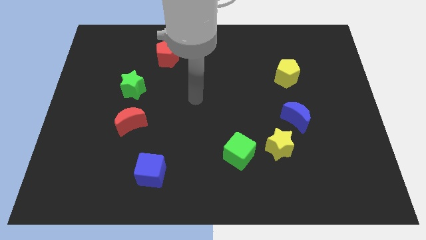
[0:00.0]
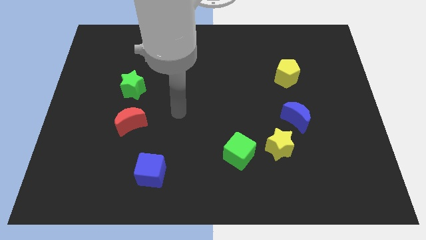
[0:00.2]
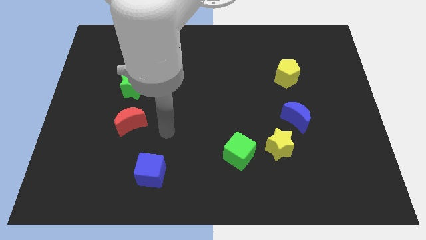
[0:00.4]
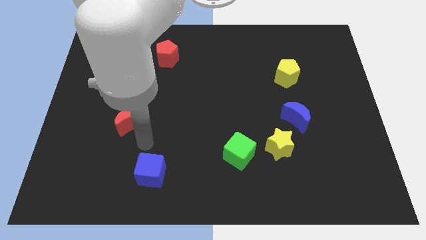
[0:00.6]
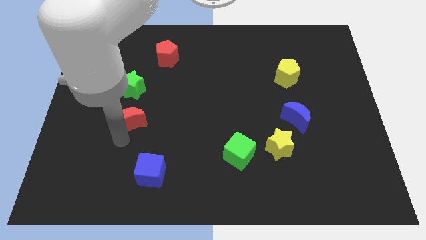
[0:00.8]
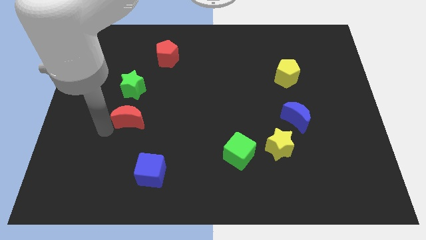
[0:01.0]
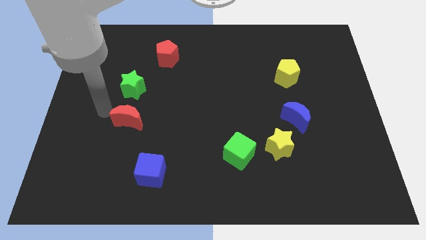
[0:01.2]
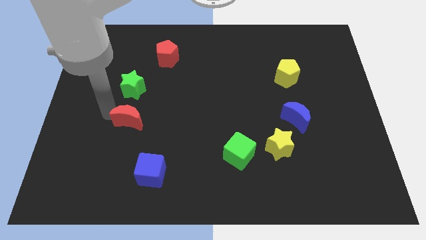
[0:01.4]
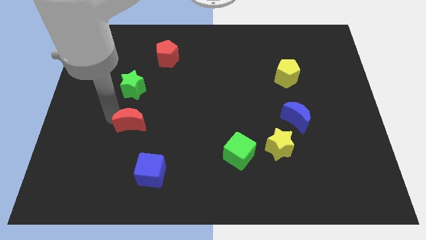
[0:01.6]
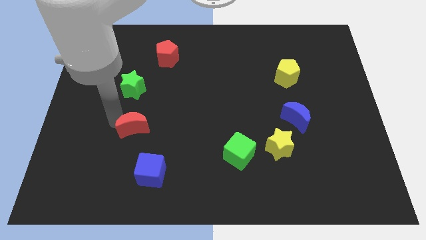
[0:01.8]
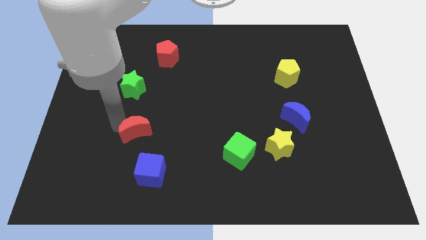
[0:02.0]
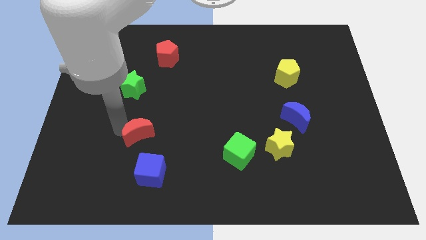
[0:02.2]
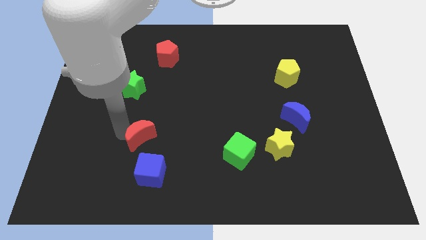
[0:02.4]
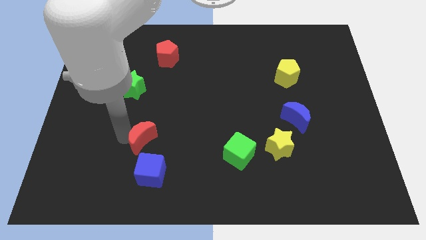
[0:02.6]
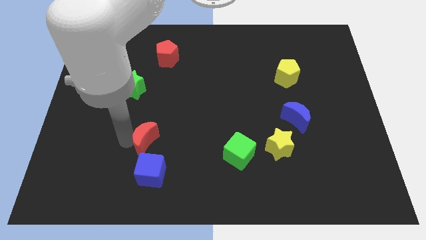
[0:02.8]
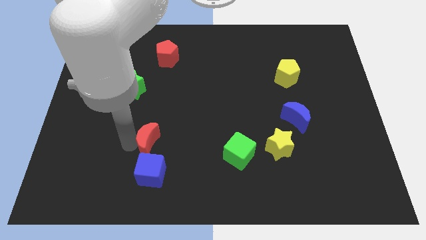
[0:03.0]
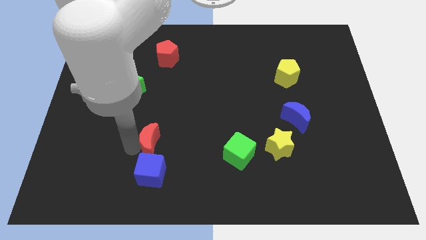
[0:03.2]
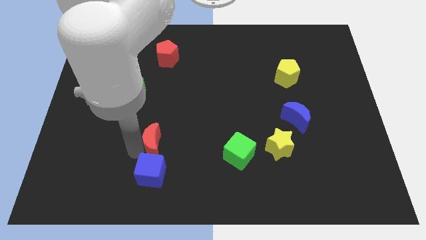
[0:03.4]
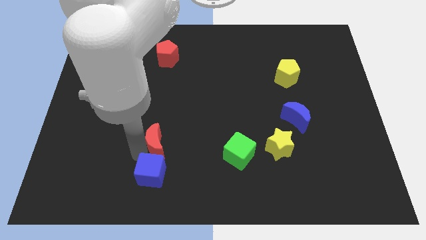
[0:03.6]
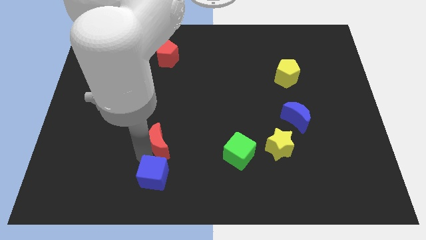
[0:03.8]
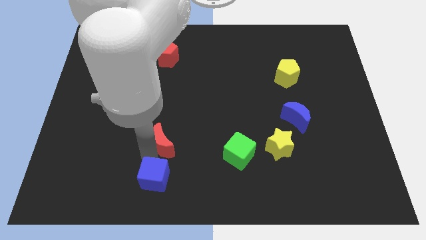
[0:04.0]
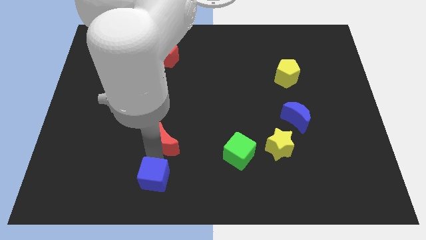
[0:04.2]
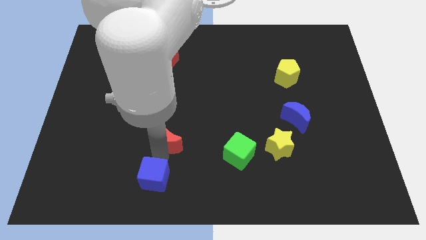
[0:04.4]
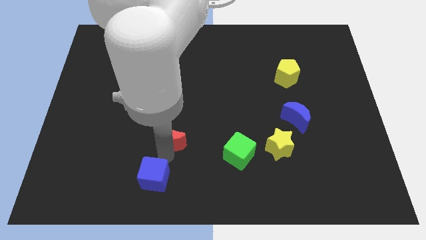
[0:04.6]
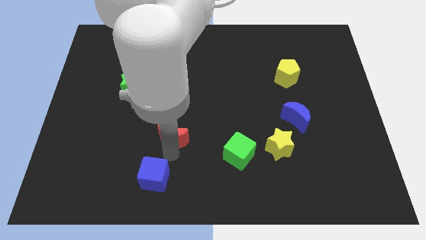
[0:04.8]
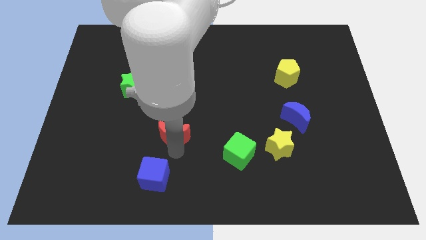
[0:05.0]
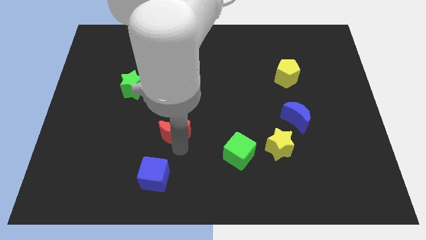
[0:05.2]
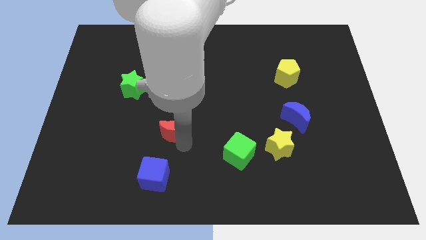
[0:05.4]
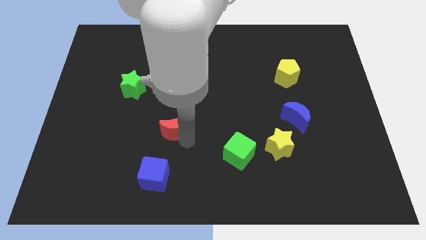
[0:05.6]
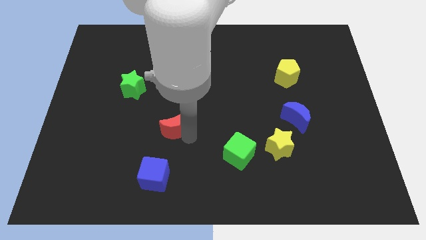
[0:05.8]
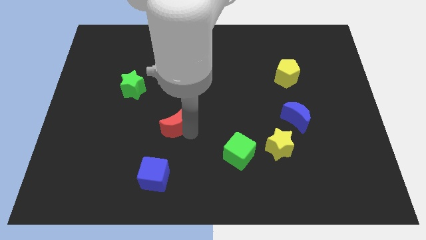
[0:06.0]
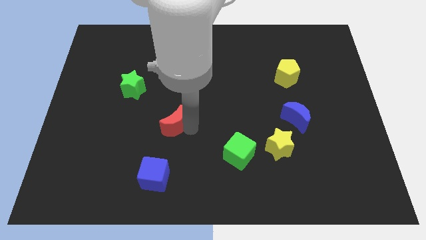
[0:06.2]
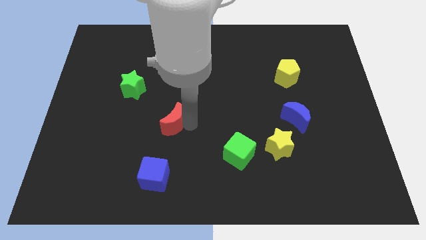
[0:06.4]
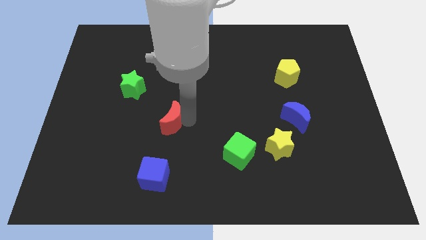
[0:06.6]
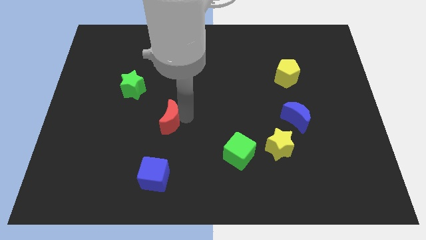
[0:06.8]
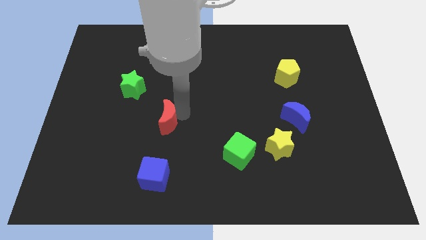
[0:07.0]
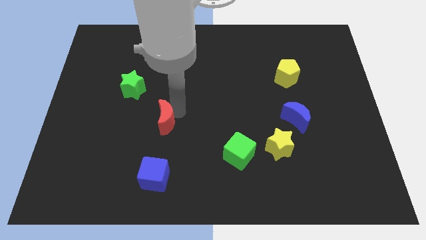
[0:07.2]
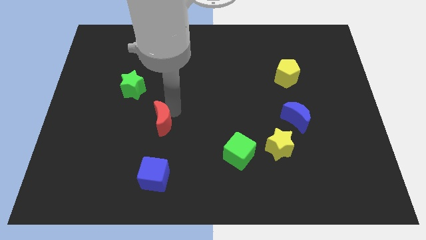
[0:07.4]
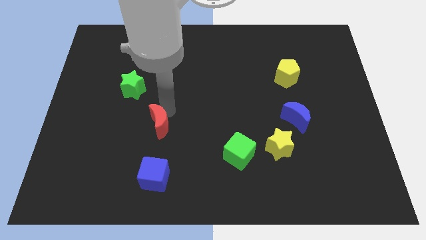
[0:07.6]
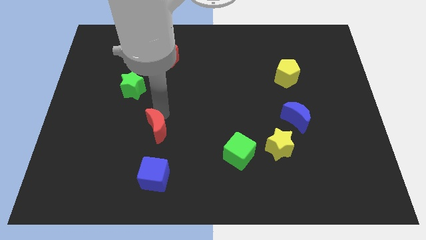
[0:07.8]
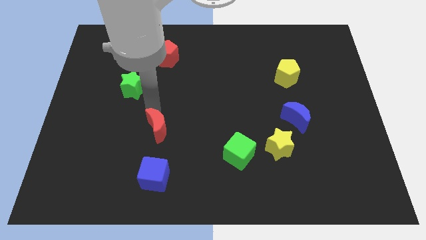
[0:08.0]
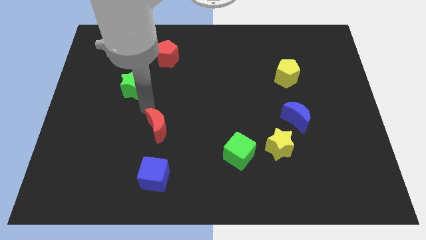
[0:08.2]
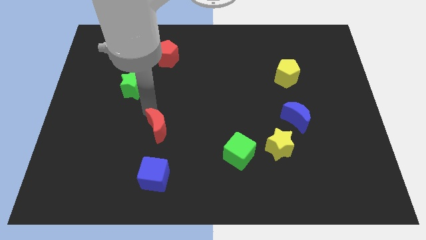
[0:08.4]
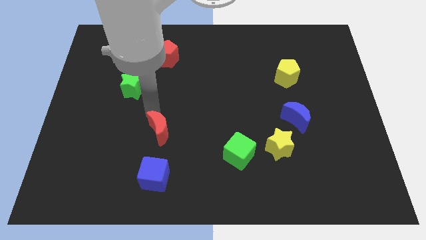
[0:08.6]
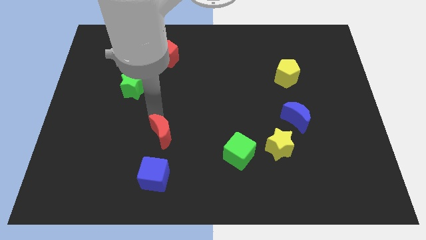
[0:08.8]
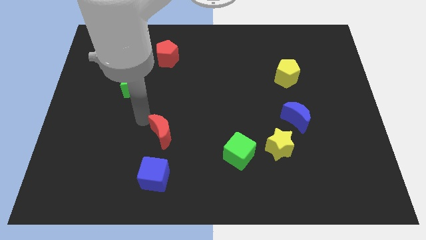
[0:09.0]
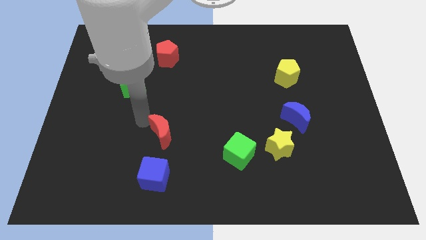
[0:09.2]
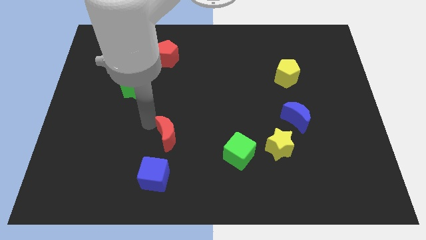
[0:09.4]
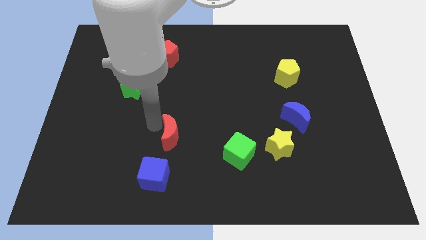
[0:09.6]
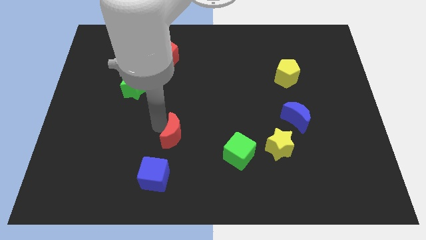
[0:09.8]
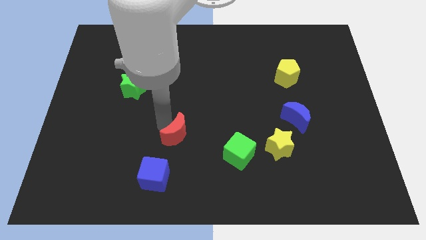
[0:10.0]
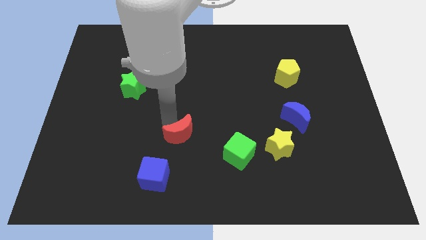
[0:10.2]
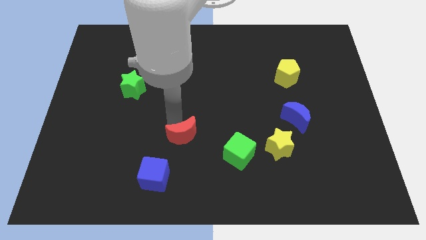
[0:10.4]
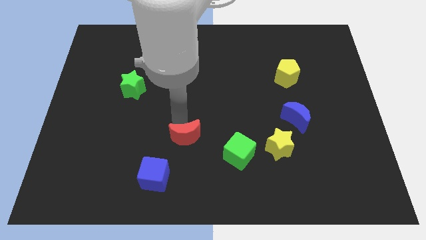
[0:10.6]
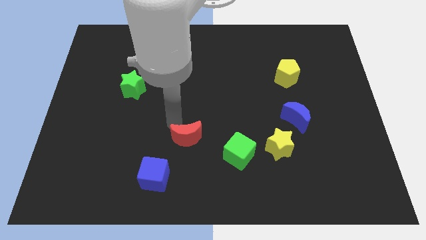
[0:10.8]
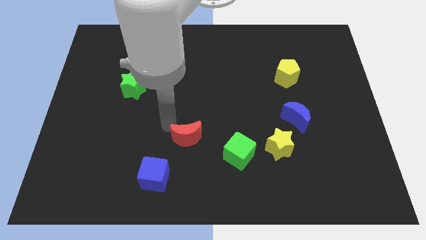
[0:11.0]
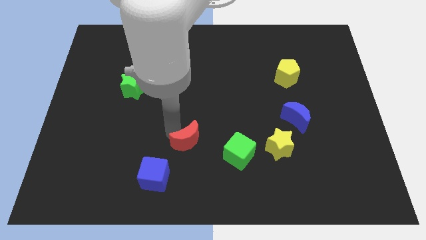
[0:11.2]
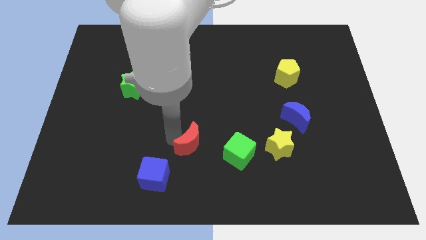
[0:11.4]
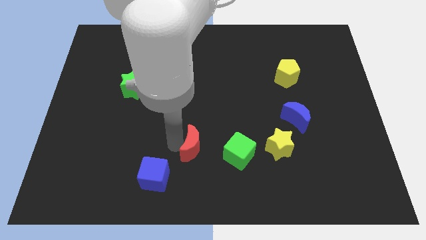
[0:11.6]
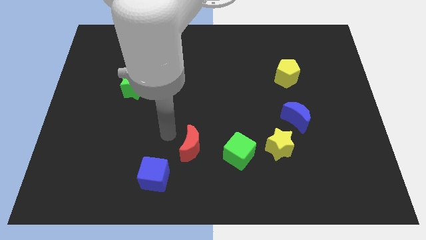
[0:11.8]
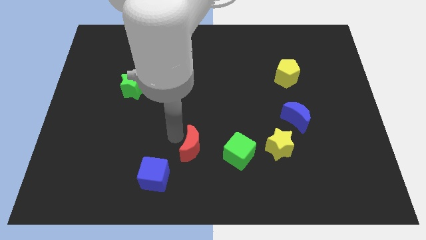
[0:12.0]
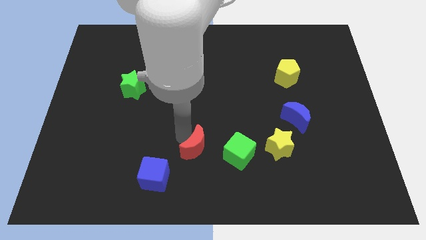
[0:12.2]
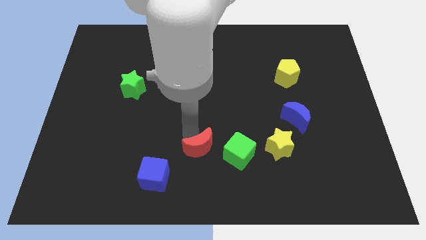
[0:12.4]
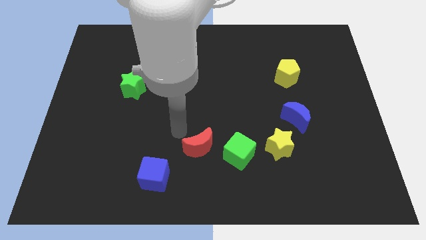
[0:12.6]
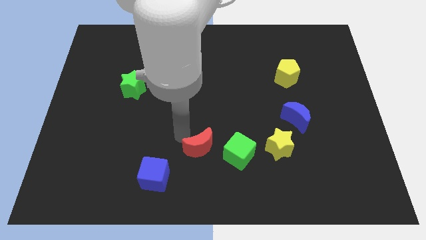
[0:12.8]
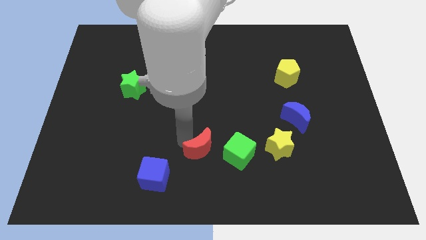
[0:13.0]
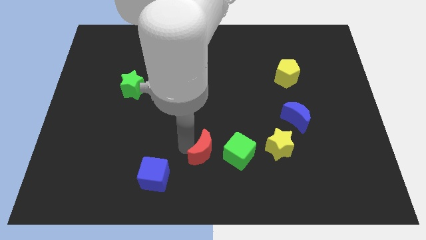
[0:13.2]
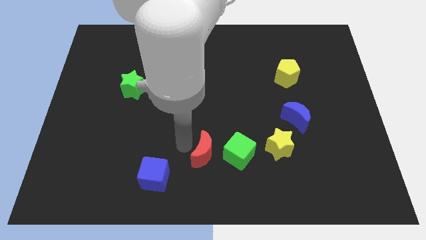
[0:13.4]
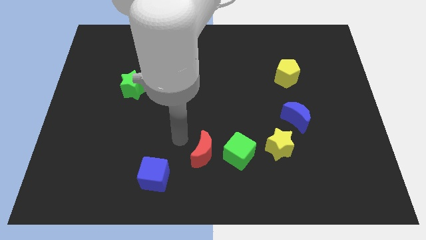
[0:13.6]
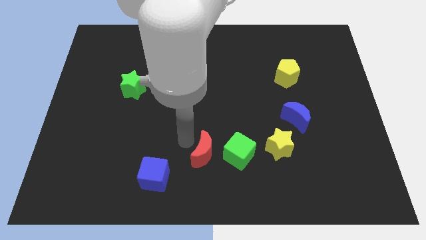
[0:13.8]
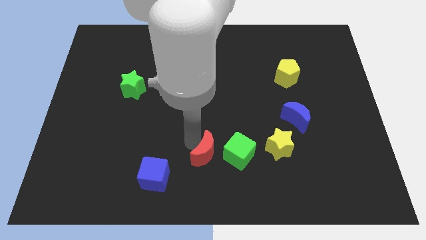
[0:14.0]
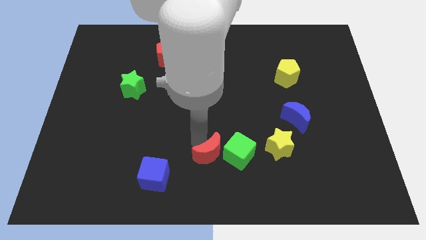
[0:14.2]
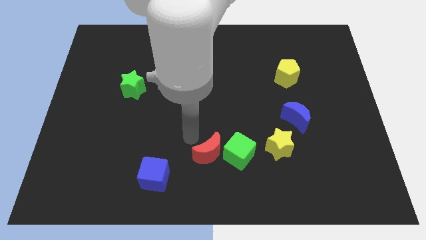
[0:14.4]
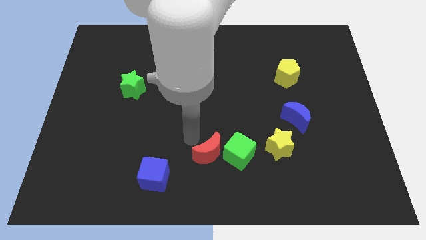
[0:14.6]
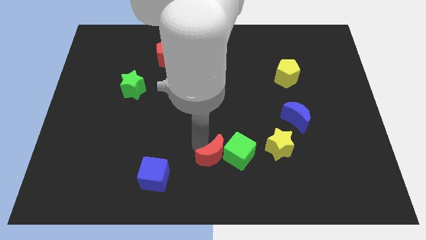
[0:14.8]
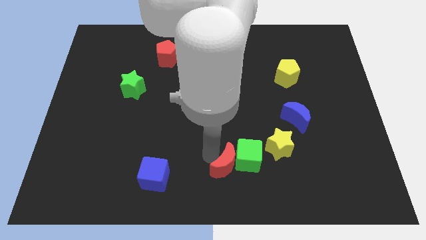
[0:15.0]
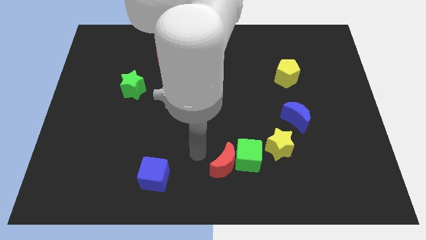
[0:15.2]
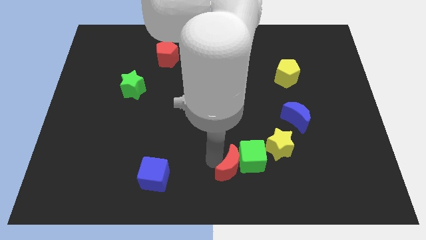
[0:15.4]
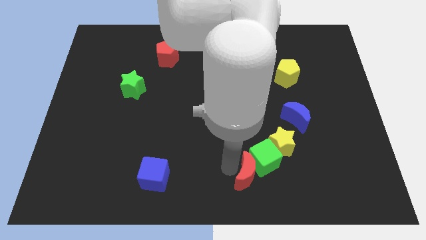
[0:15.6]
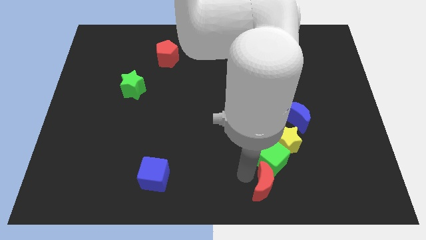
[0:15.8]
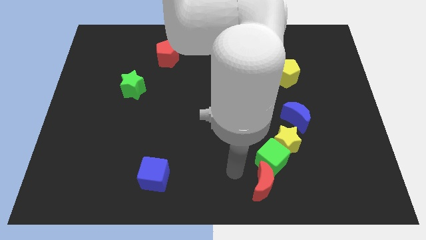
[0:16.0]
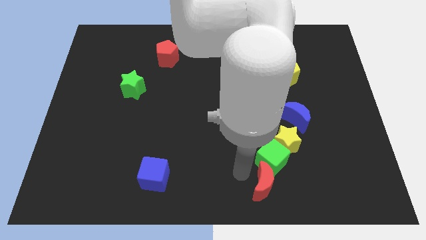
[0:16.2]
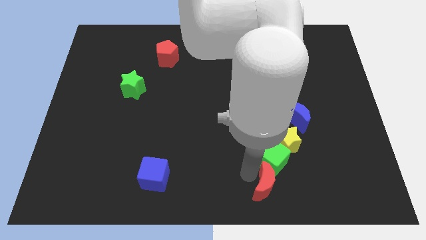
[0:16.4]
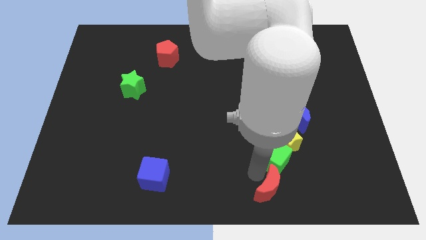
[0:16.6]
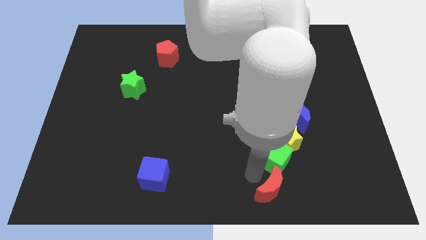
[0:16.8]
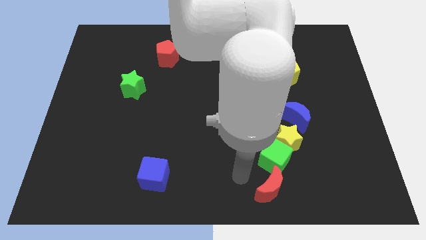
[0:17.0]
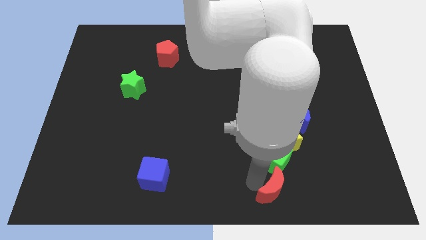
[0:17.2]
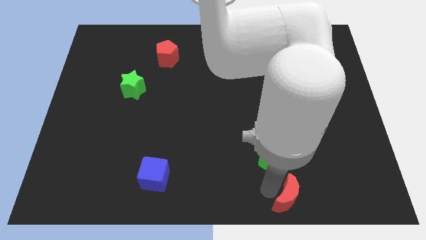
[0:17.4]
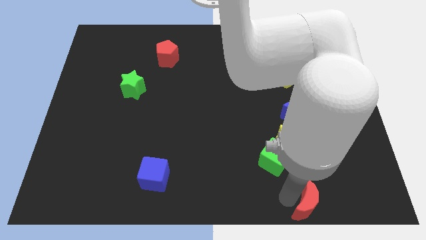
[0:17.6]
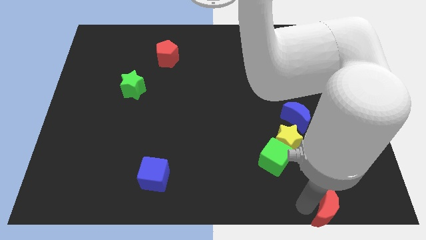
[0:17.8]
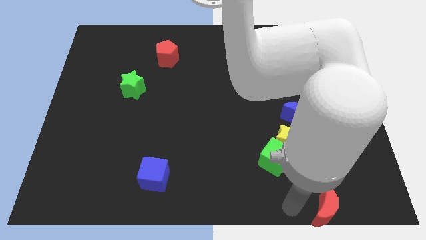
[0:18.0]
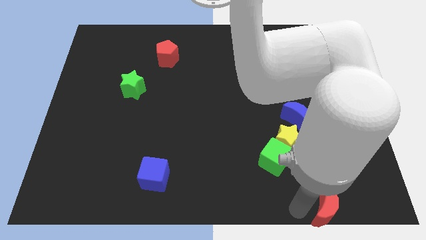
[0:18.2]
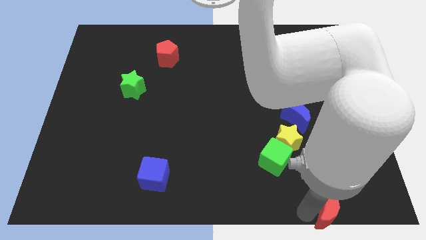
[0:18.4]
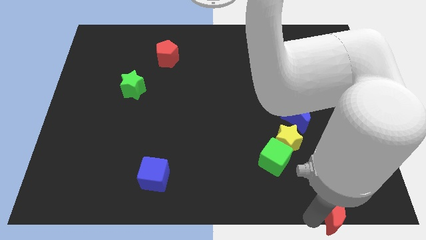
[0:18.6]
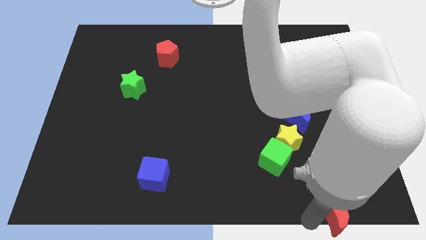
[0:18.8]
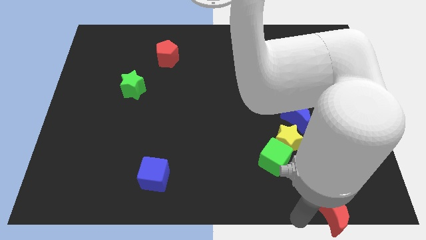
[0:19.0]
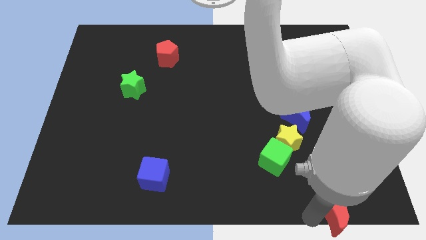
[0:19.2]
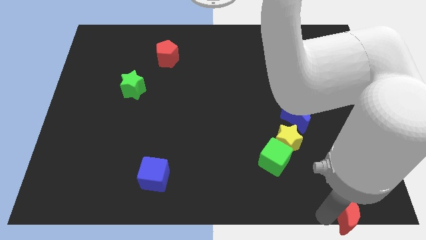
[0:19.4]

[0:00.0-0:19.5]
push the red moon to the lower right corner
